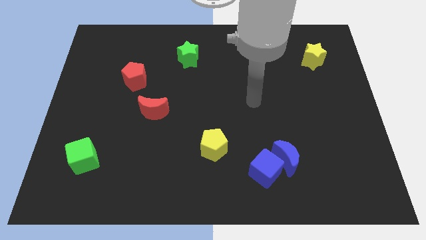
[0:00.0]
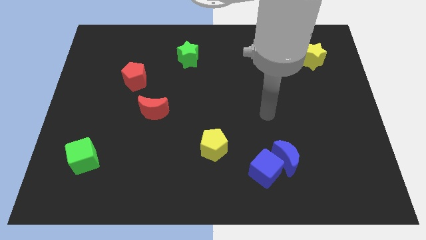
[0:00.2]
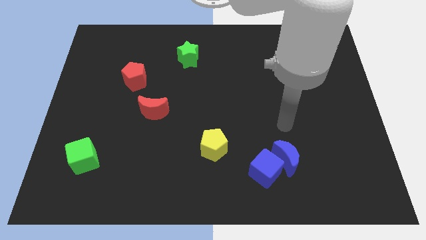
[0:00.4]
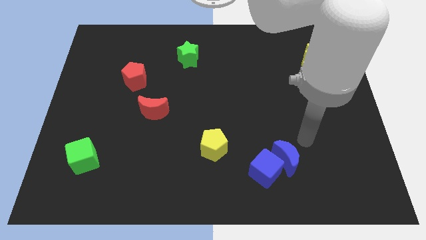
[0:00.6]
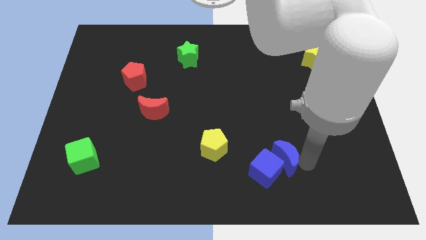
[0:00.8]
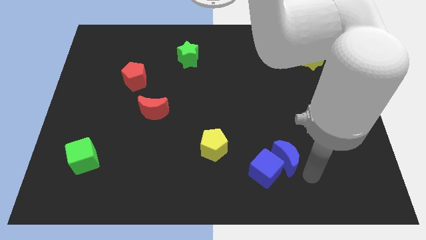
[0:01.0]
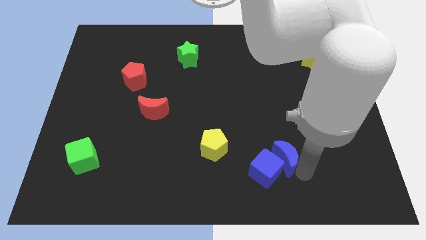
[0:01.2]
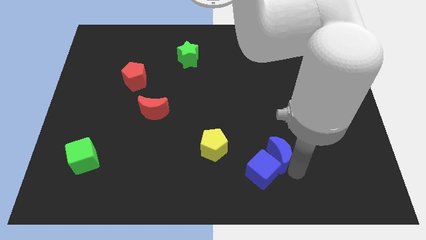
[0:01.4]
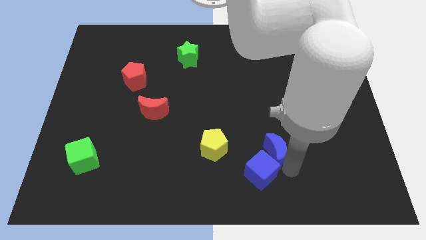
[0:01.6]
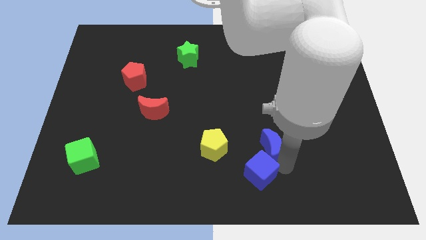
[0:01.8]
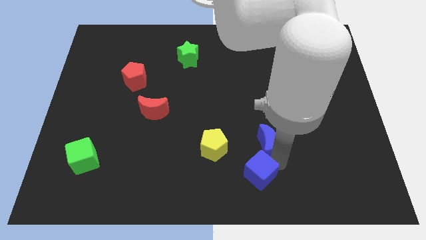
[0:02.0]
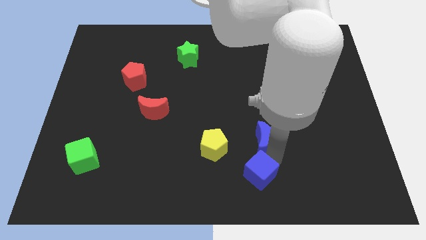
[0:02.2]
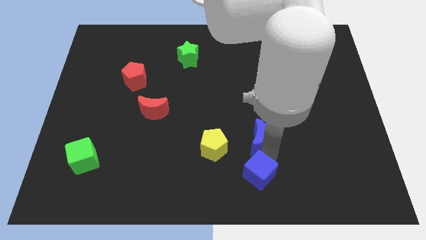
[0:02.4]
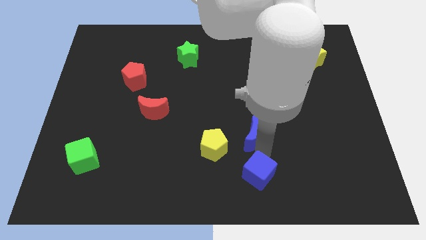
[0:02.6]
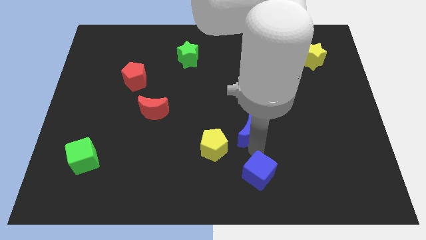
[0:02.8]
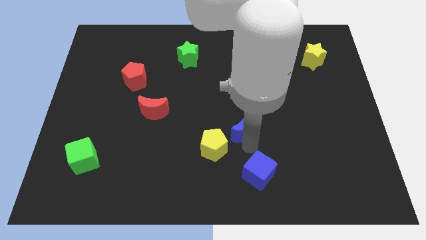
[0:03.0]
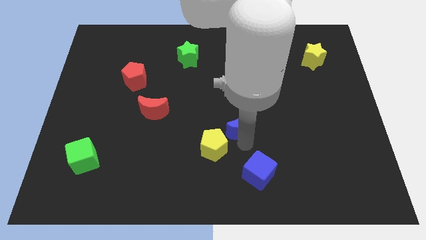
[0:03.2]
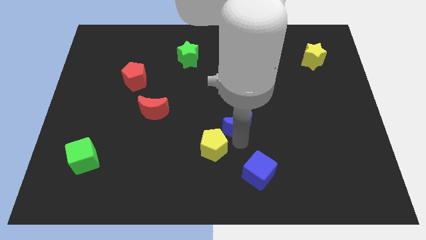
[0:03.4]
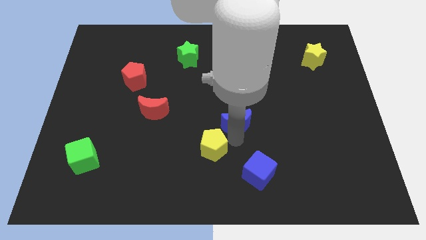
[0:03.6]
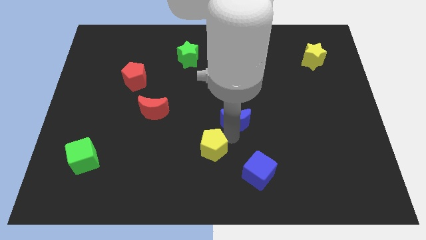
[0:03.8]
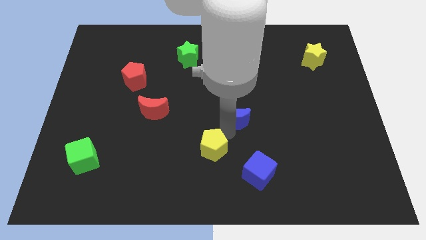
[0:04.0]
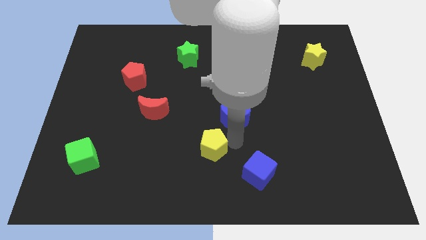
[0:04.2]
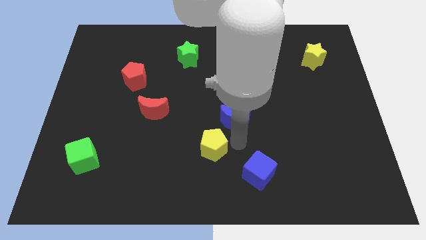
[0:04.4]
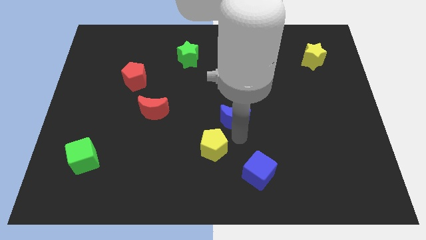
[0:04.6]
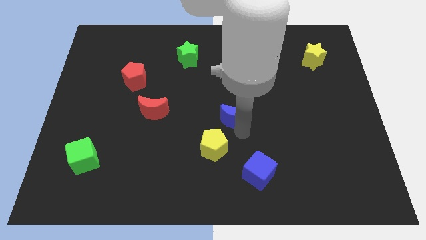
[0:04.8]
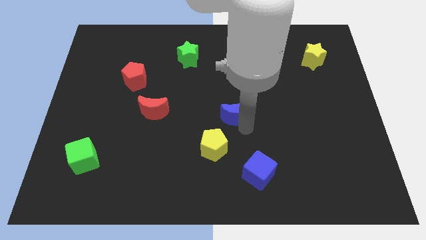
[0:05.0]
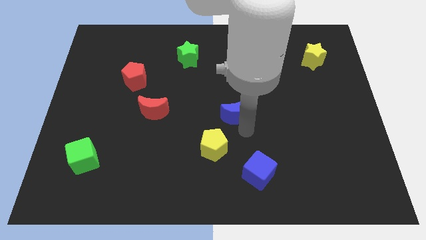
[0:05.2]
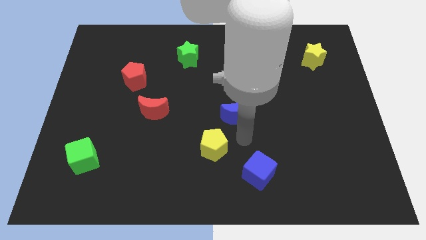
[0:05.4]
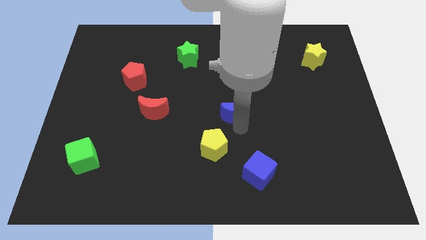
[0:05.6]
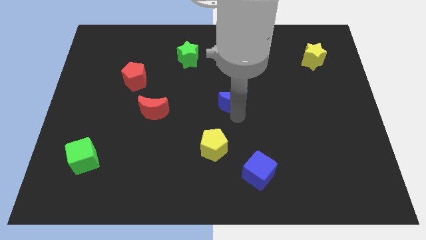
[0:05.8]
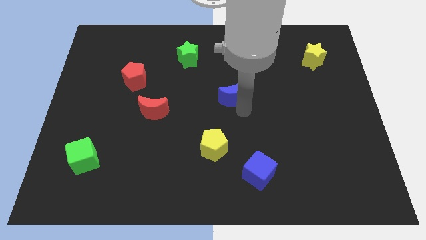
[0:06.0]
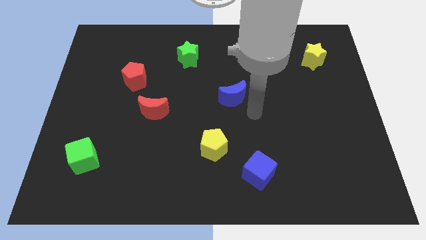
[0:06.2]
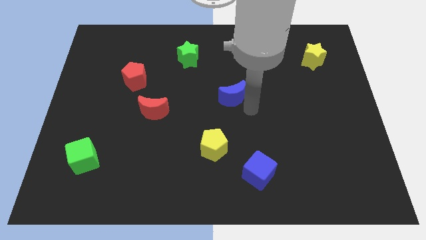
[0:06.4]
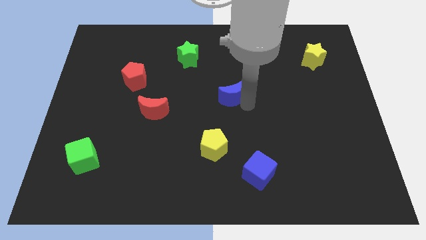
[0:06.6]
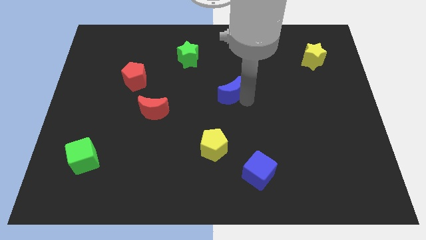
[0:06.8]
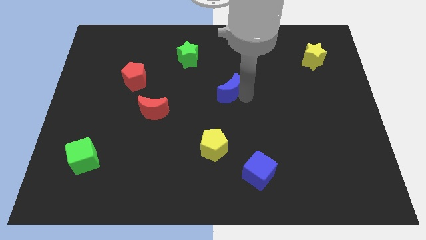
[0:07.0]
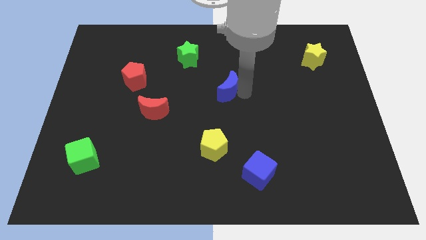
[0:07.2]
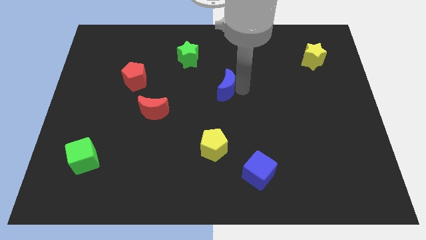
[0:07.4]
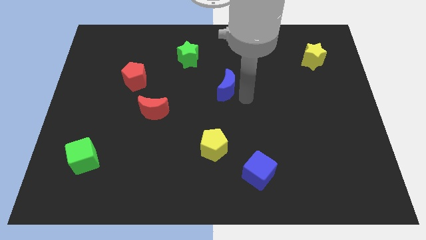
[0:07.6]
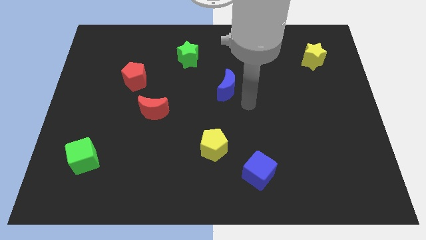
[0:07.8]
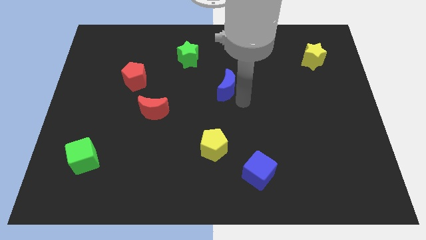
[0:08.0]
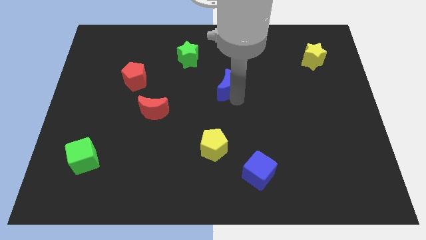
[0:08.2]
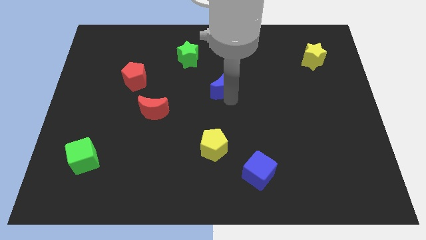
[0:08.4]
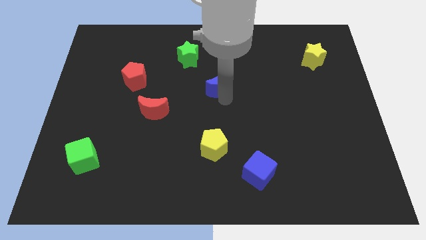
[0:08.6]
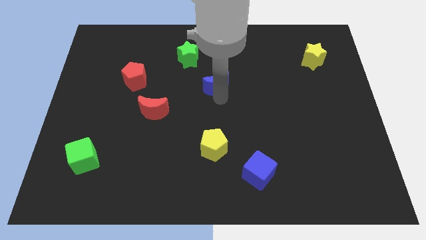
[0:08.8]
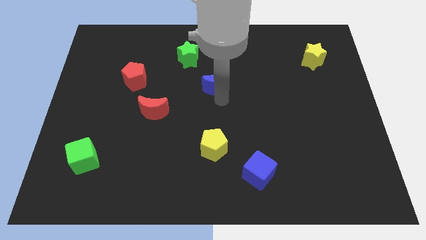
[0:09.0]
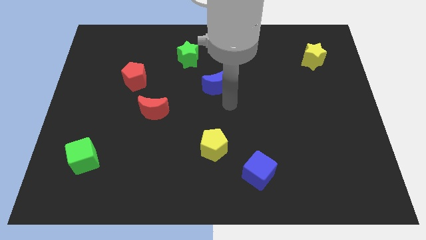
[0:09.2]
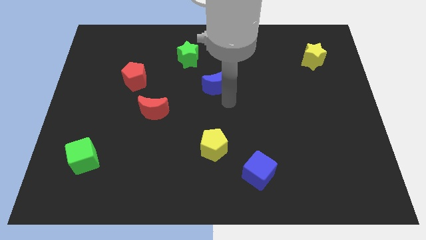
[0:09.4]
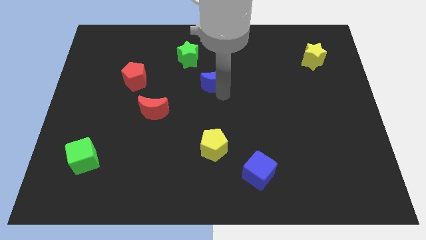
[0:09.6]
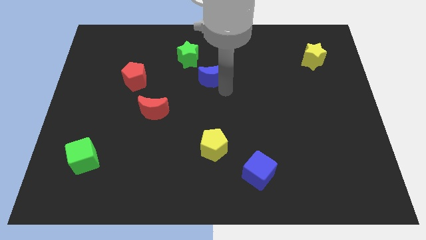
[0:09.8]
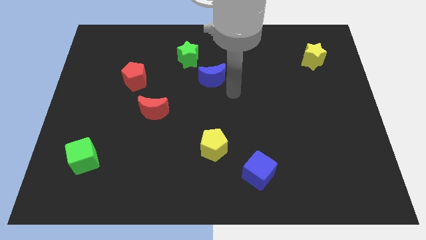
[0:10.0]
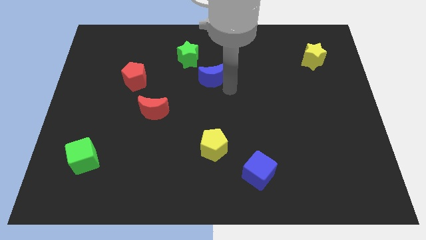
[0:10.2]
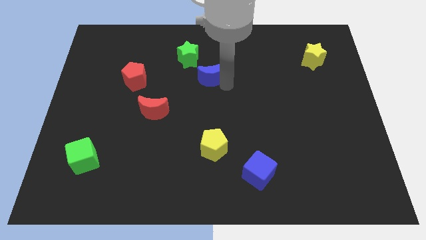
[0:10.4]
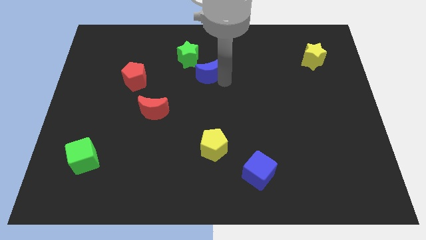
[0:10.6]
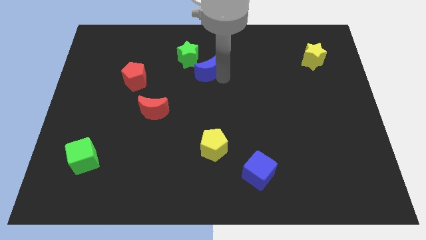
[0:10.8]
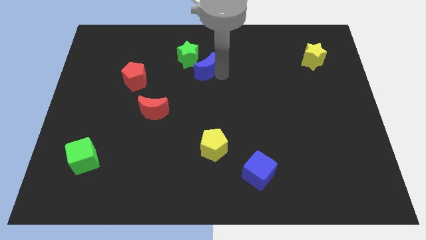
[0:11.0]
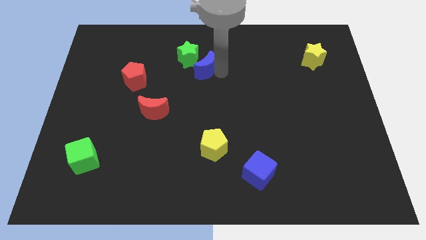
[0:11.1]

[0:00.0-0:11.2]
slide the blue moon next to the green star

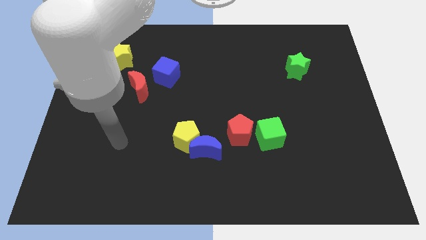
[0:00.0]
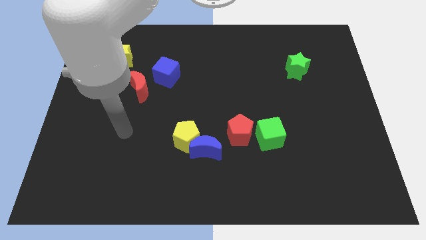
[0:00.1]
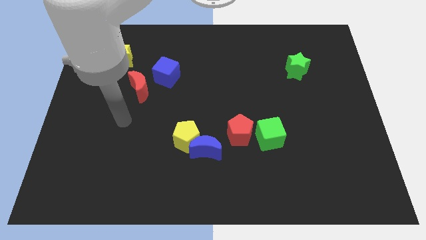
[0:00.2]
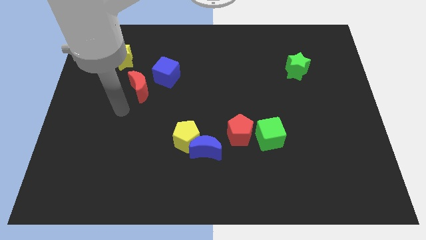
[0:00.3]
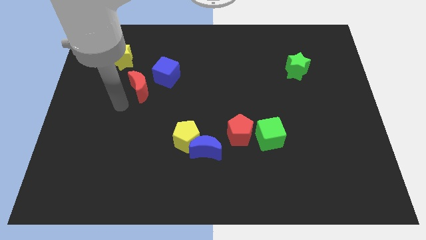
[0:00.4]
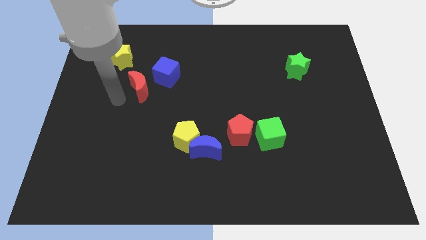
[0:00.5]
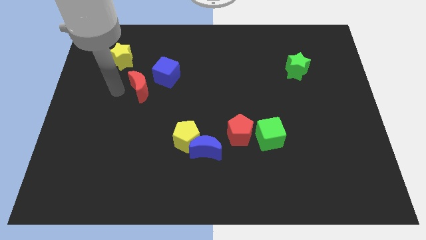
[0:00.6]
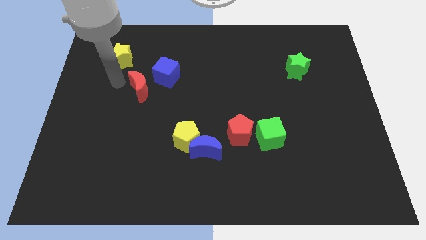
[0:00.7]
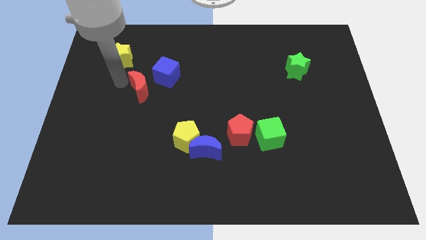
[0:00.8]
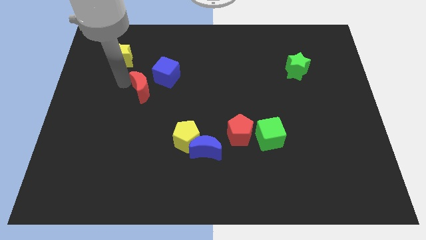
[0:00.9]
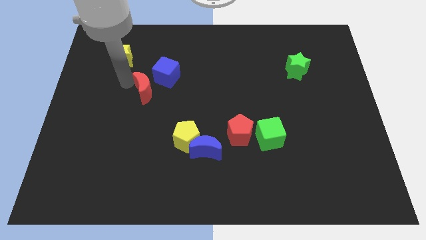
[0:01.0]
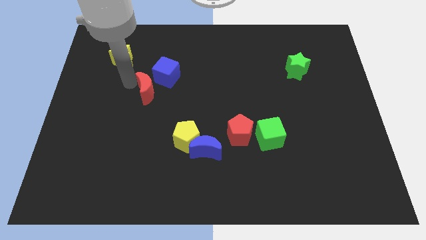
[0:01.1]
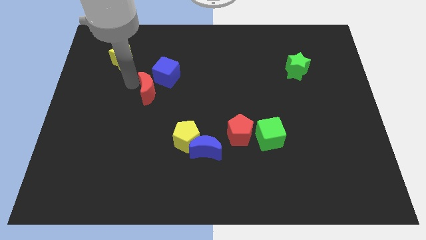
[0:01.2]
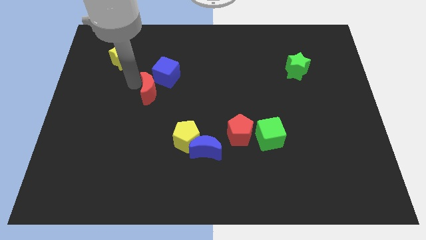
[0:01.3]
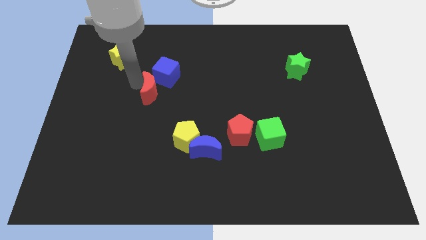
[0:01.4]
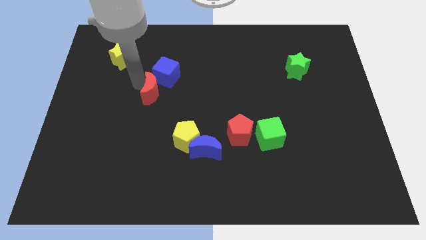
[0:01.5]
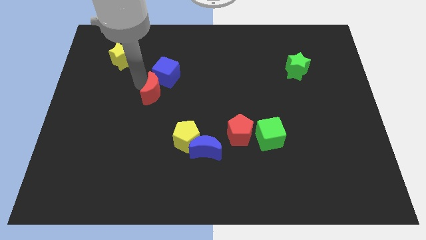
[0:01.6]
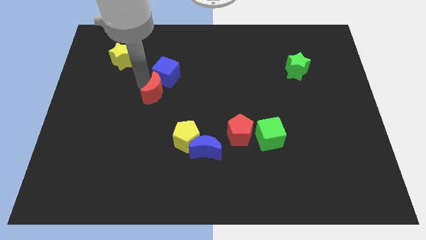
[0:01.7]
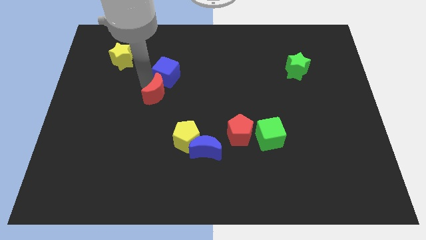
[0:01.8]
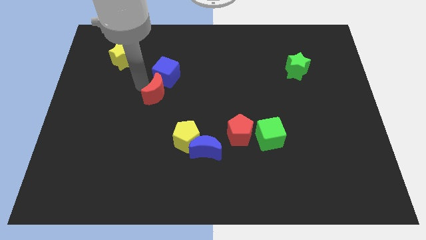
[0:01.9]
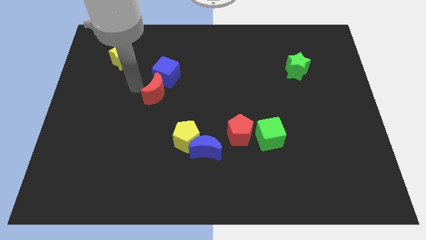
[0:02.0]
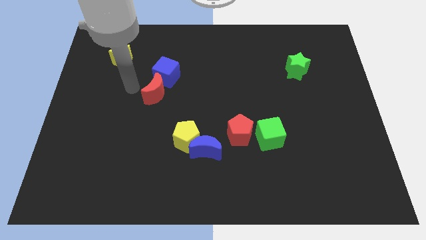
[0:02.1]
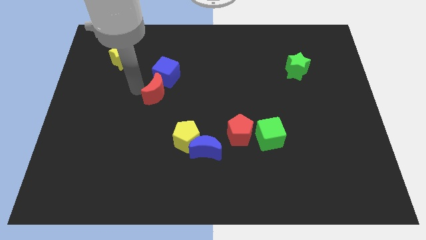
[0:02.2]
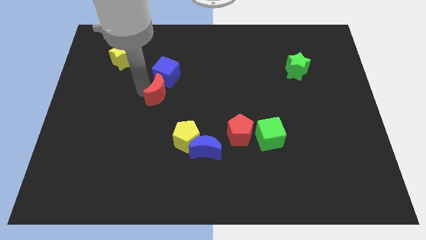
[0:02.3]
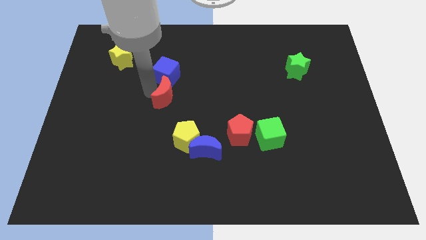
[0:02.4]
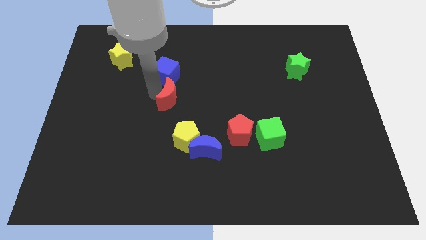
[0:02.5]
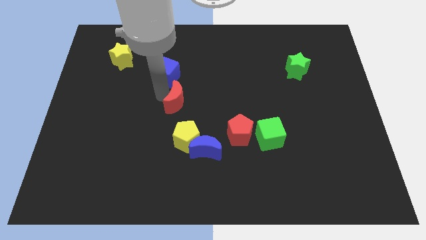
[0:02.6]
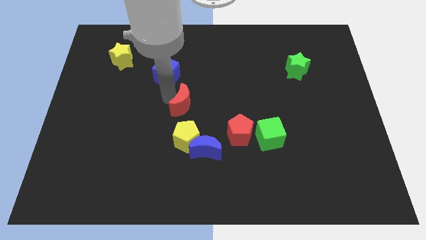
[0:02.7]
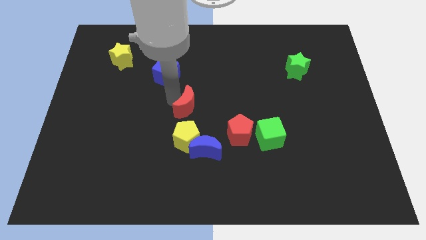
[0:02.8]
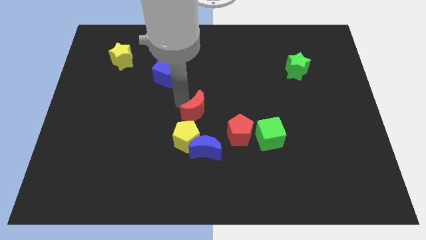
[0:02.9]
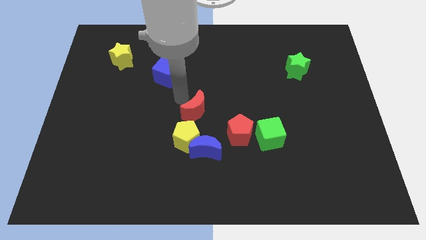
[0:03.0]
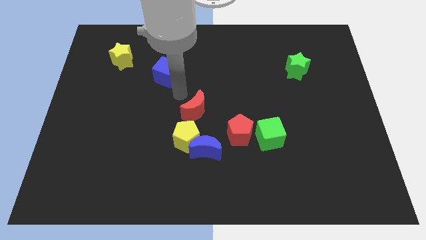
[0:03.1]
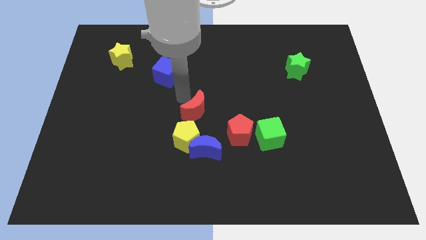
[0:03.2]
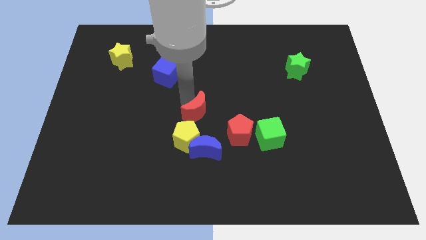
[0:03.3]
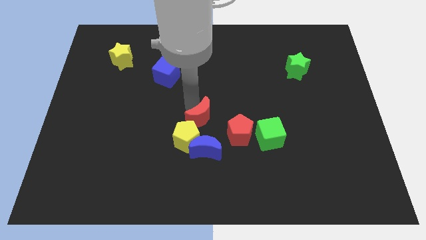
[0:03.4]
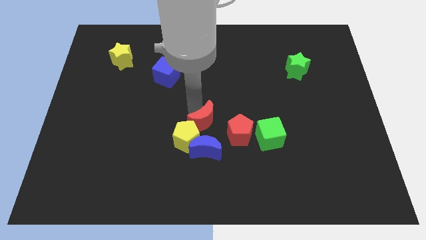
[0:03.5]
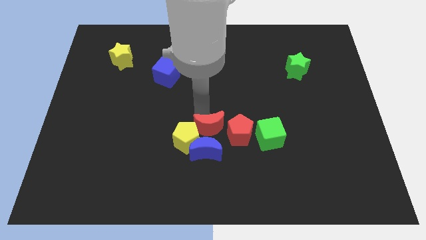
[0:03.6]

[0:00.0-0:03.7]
slide the red moon next to the blue moon
